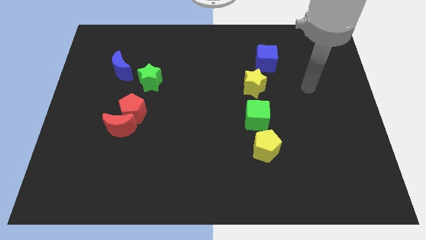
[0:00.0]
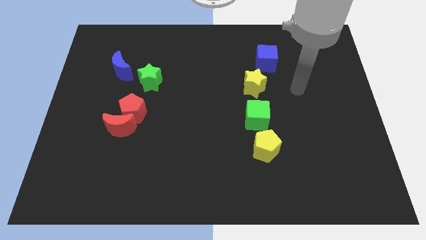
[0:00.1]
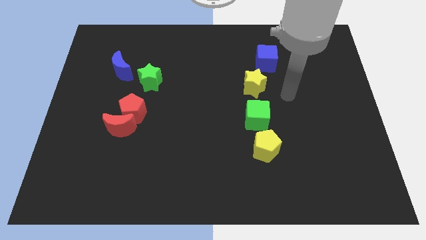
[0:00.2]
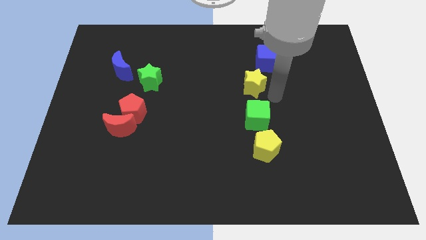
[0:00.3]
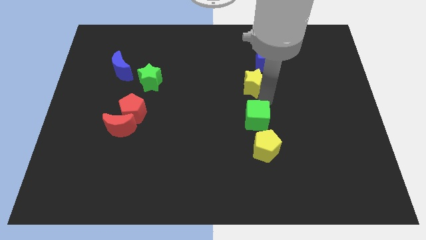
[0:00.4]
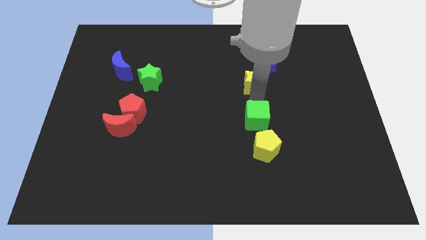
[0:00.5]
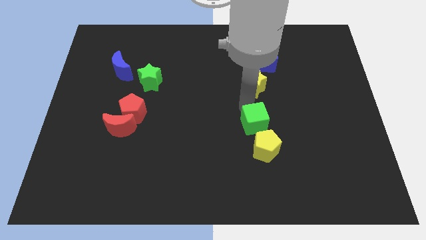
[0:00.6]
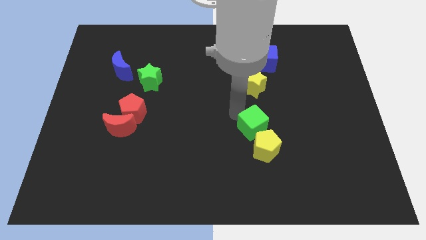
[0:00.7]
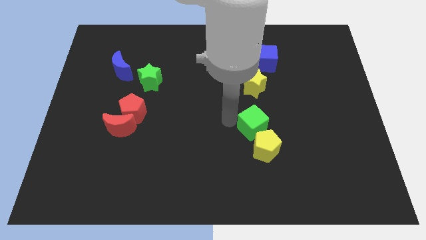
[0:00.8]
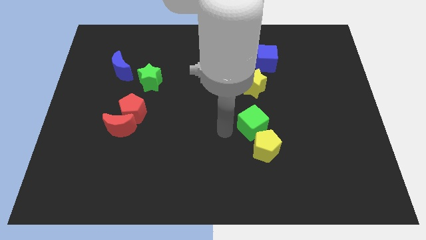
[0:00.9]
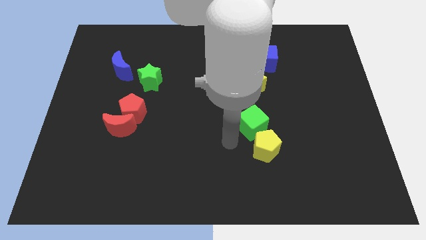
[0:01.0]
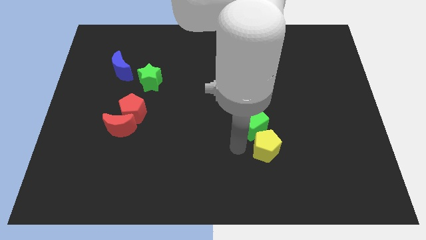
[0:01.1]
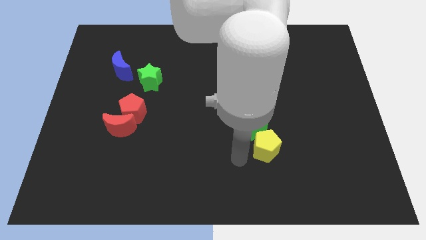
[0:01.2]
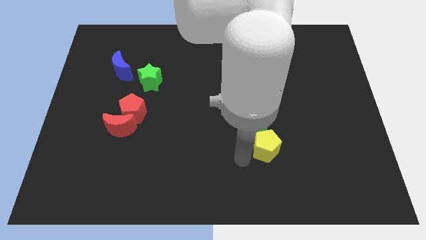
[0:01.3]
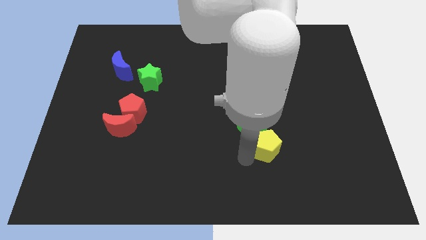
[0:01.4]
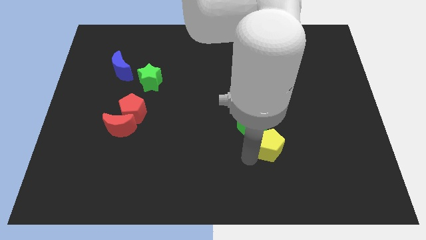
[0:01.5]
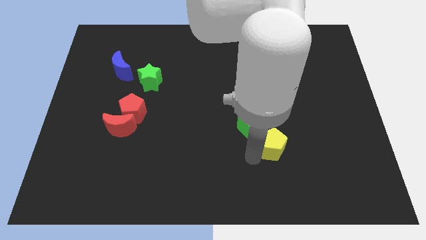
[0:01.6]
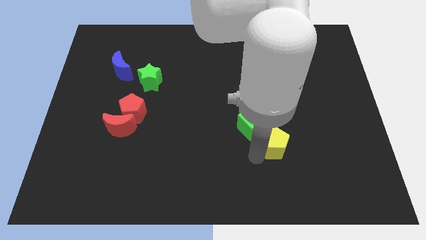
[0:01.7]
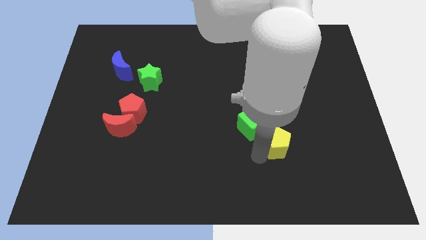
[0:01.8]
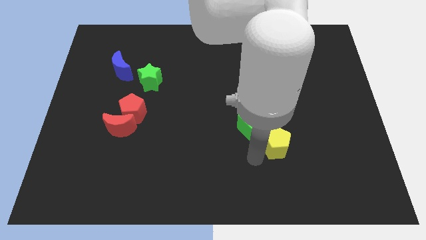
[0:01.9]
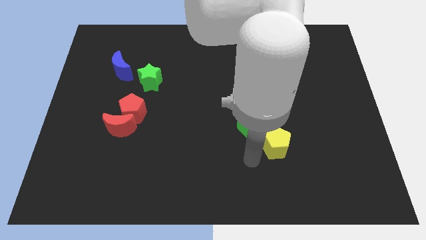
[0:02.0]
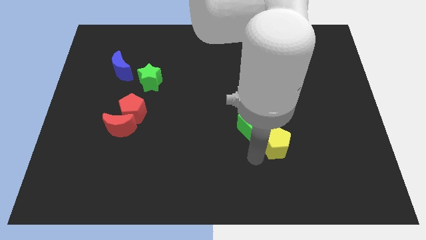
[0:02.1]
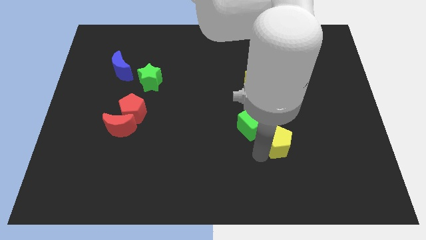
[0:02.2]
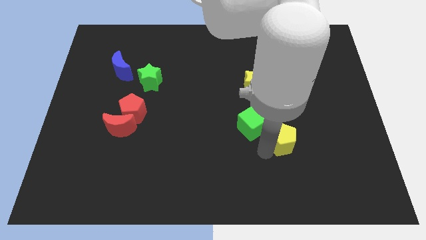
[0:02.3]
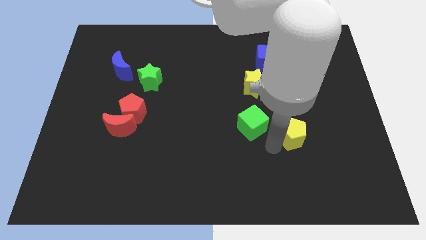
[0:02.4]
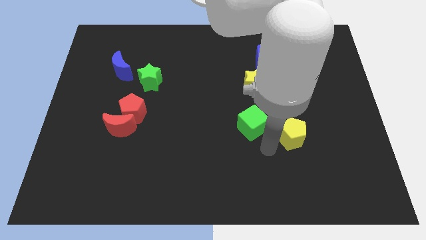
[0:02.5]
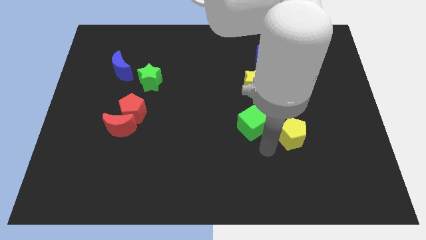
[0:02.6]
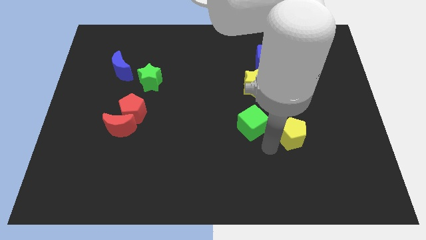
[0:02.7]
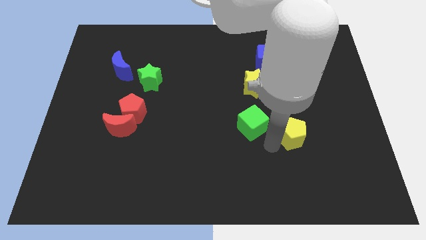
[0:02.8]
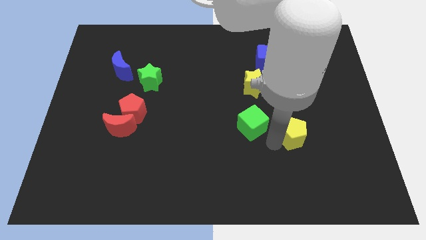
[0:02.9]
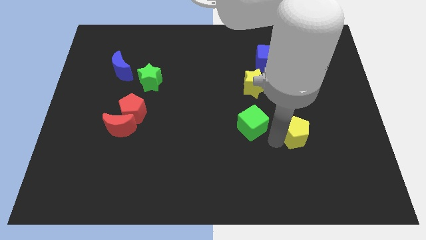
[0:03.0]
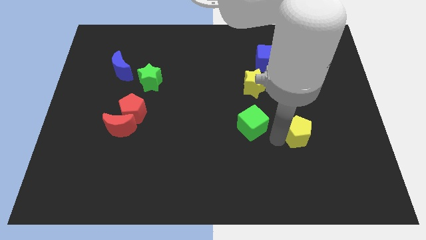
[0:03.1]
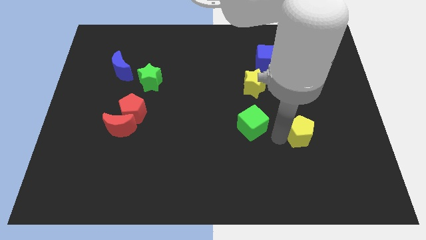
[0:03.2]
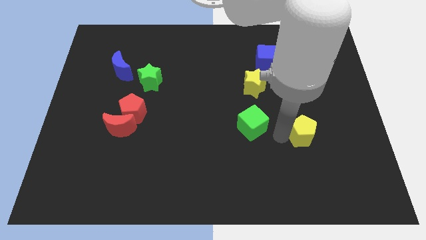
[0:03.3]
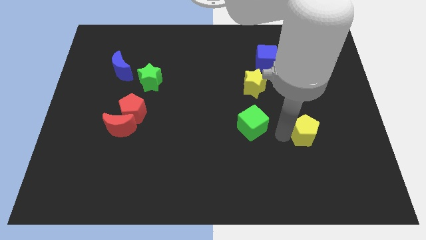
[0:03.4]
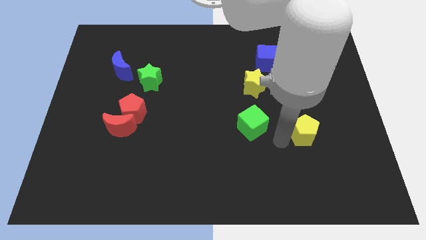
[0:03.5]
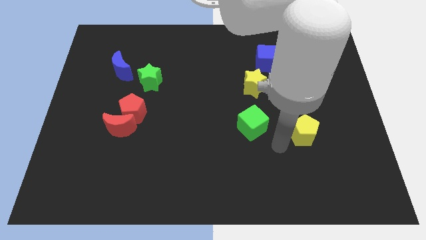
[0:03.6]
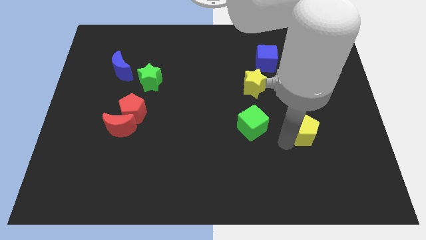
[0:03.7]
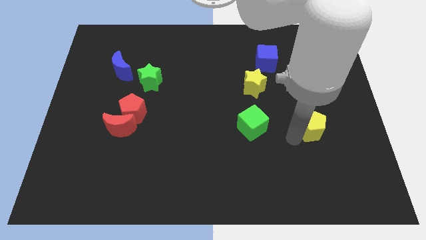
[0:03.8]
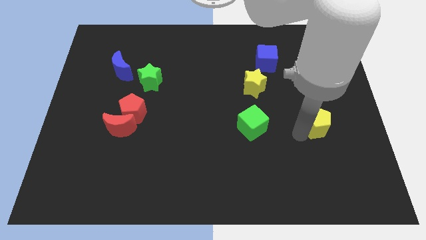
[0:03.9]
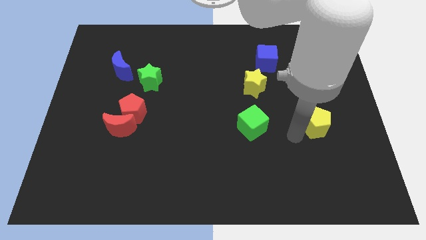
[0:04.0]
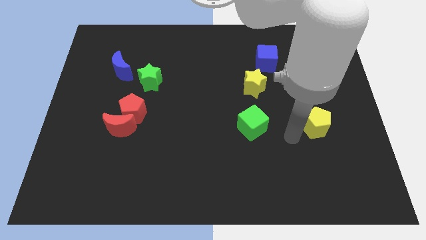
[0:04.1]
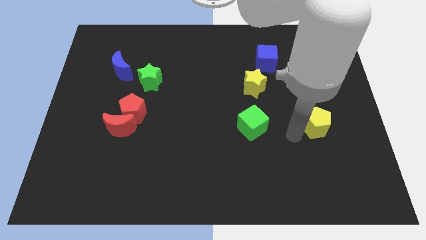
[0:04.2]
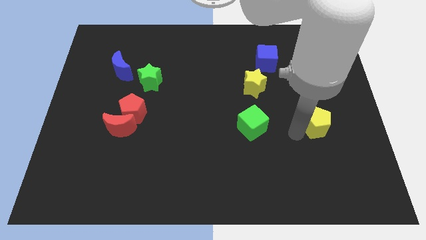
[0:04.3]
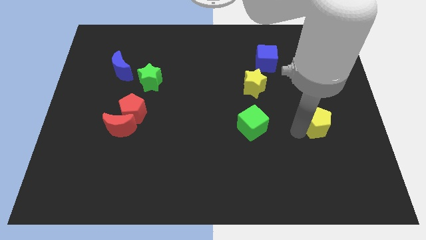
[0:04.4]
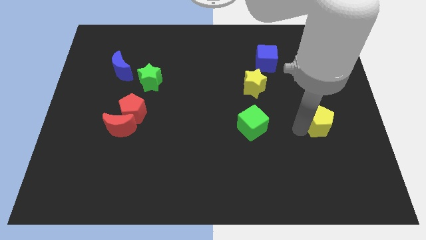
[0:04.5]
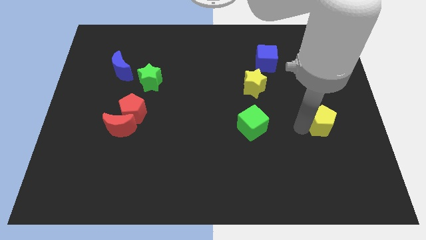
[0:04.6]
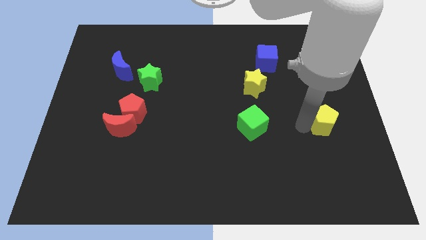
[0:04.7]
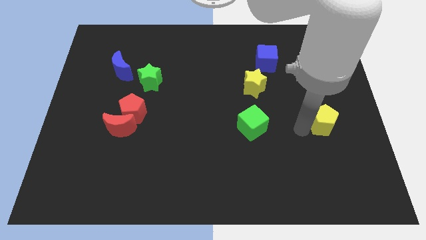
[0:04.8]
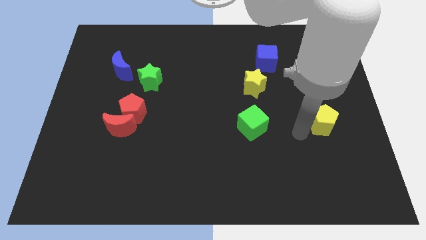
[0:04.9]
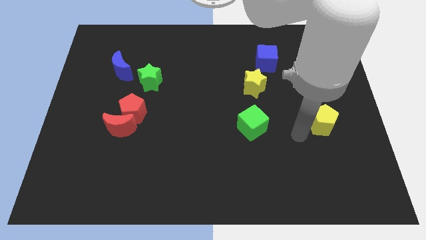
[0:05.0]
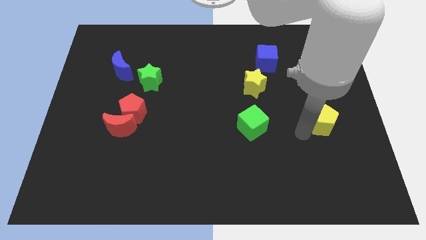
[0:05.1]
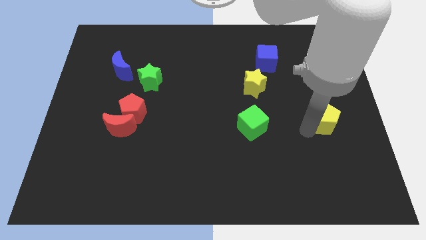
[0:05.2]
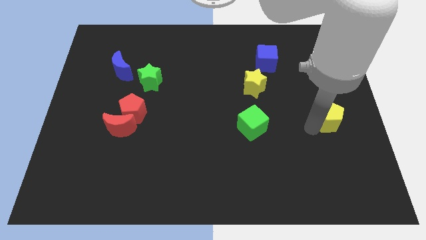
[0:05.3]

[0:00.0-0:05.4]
slide the yellow pentagon to the right side

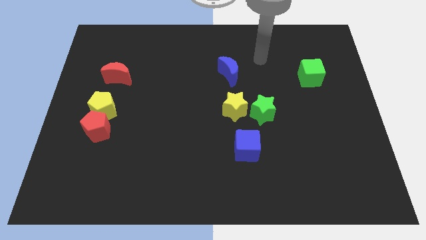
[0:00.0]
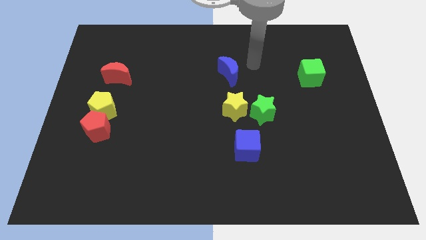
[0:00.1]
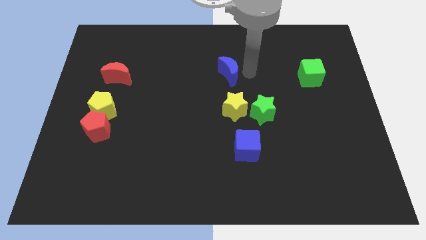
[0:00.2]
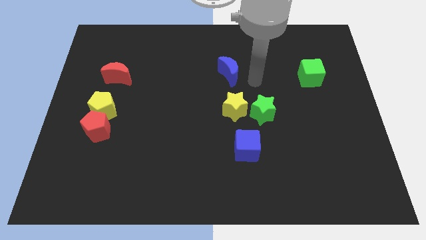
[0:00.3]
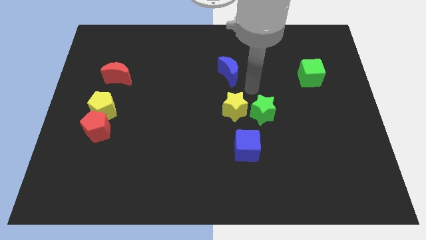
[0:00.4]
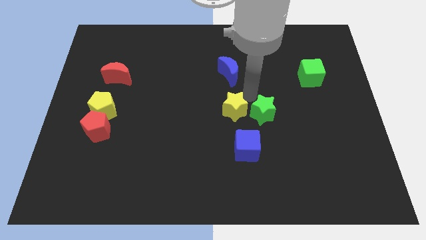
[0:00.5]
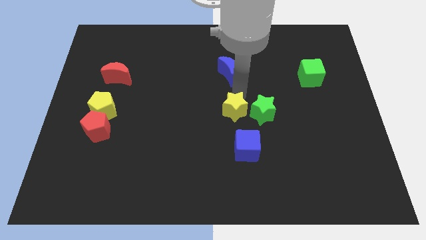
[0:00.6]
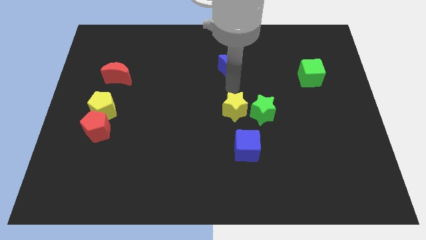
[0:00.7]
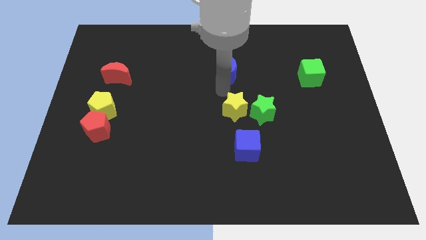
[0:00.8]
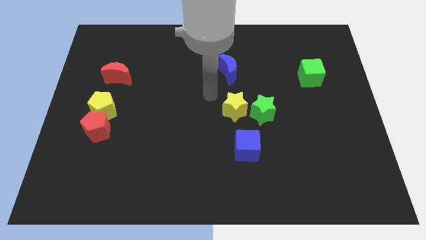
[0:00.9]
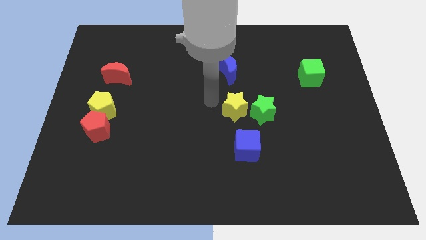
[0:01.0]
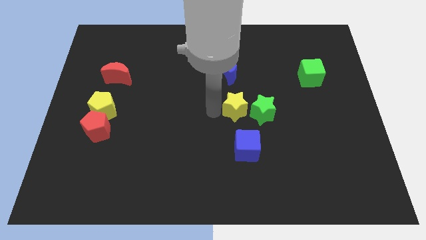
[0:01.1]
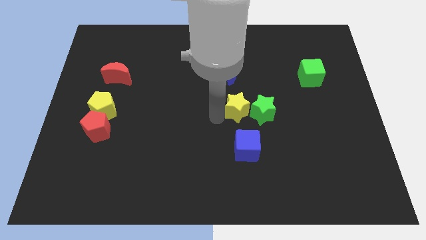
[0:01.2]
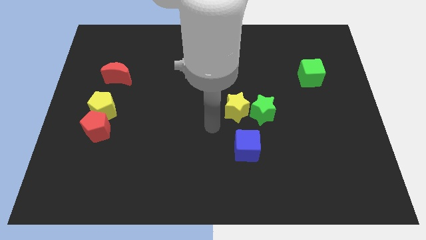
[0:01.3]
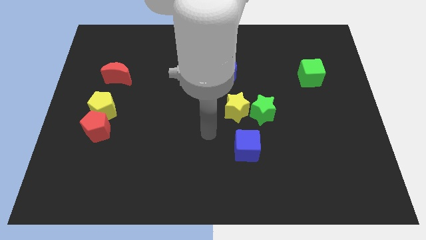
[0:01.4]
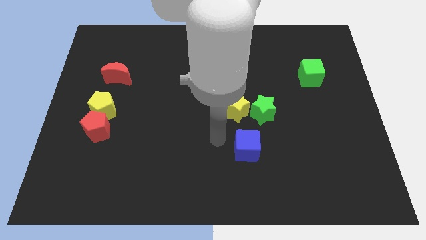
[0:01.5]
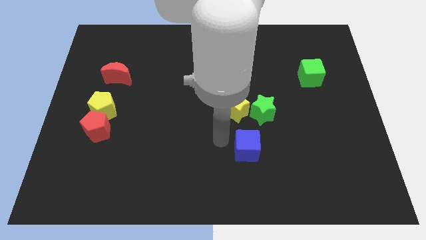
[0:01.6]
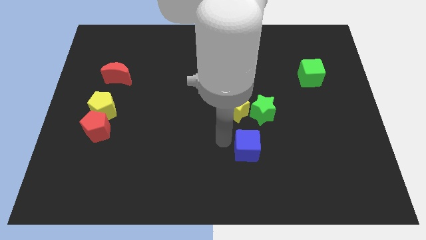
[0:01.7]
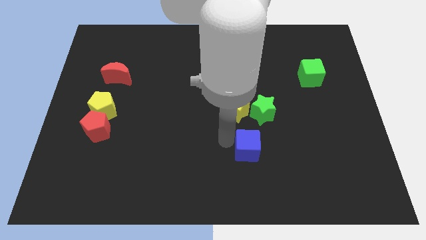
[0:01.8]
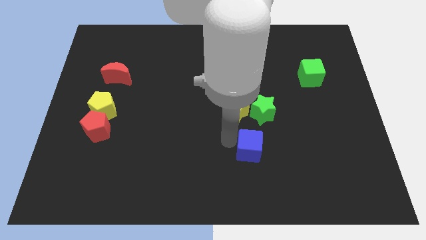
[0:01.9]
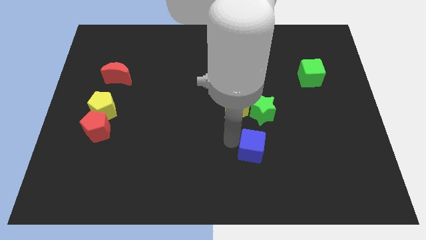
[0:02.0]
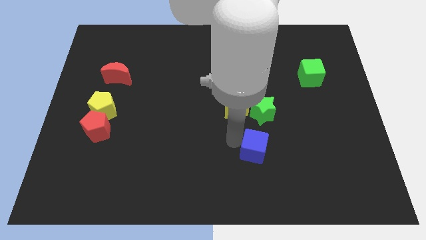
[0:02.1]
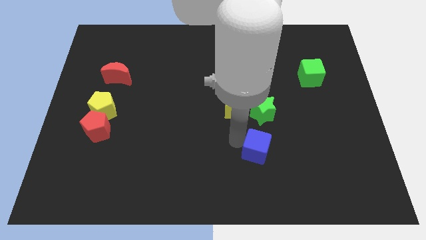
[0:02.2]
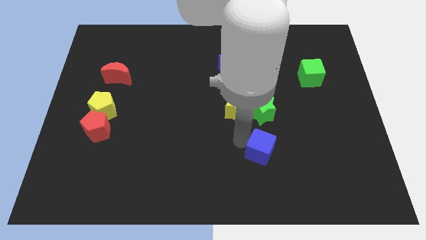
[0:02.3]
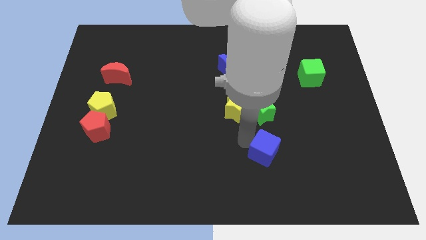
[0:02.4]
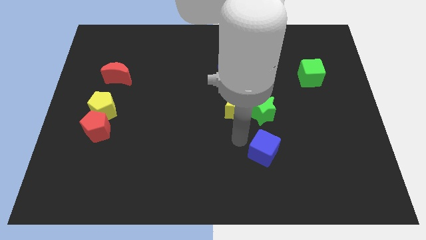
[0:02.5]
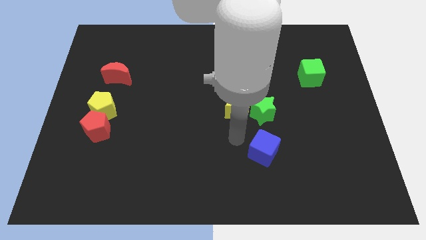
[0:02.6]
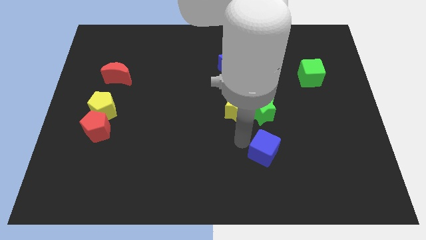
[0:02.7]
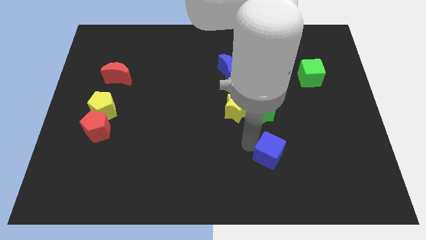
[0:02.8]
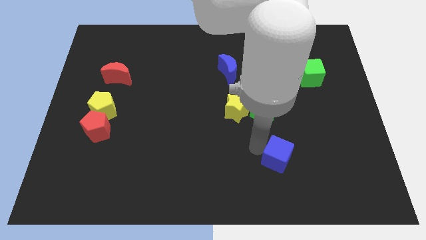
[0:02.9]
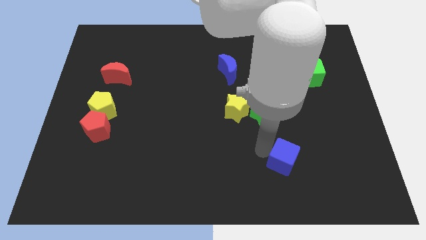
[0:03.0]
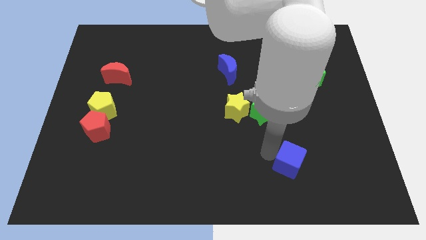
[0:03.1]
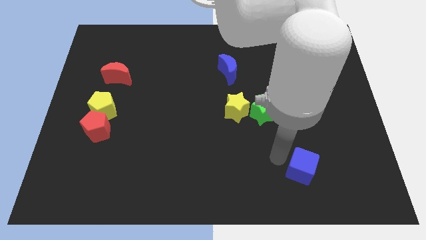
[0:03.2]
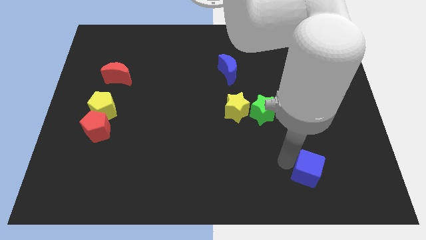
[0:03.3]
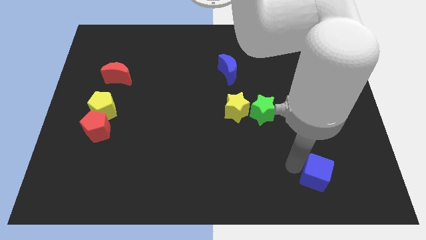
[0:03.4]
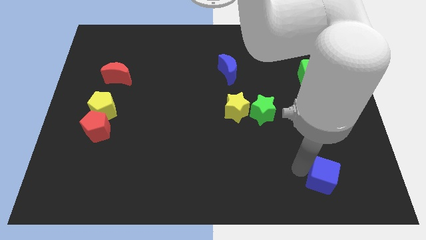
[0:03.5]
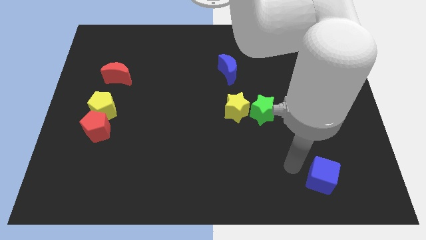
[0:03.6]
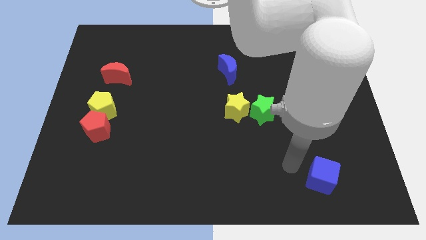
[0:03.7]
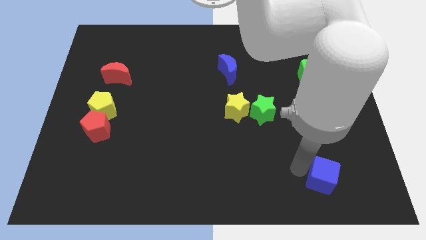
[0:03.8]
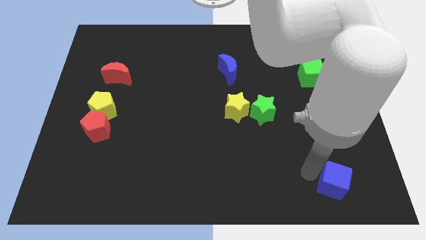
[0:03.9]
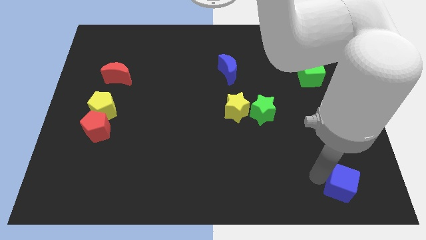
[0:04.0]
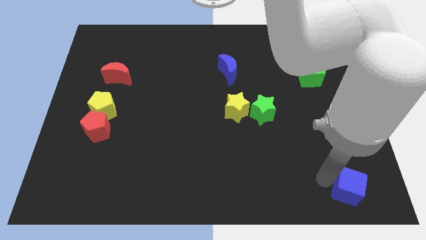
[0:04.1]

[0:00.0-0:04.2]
slide the blue cube to the bottom right of the board
